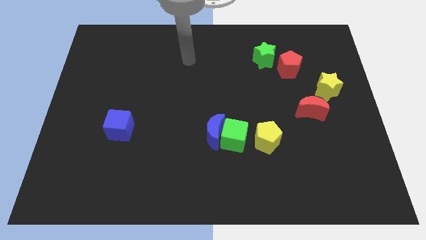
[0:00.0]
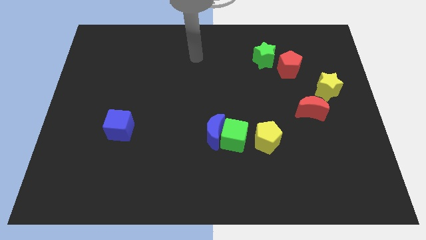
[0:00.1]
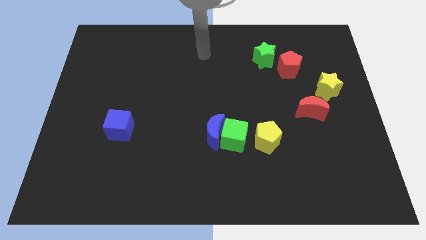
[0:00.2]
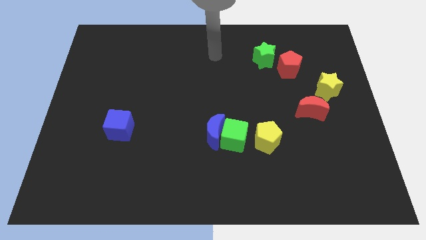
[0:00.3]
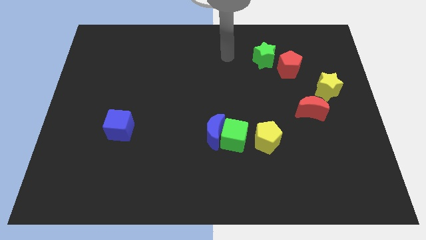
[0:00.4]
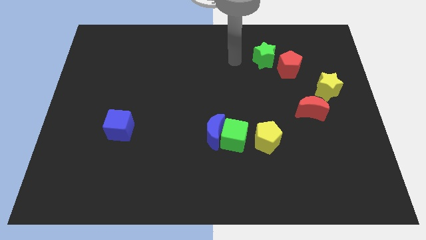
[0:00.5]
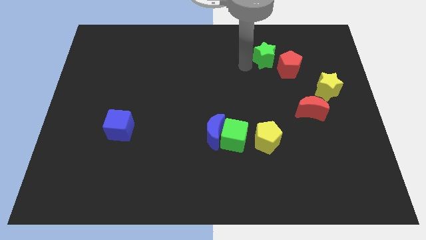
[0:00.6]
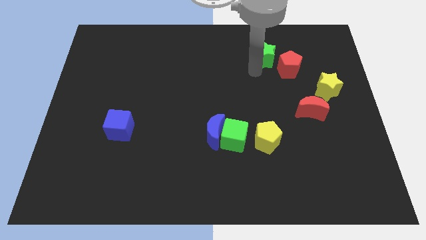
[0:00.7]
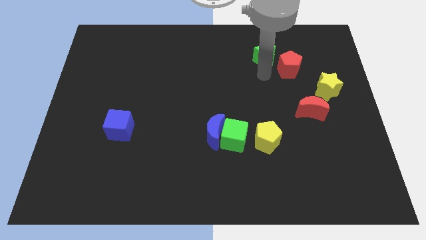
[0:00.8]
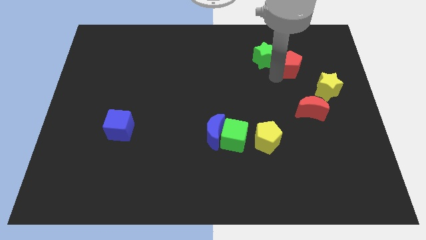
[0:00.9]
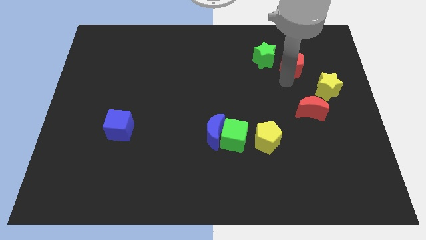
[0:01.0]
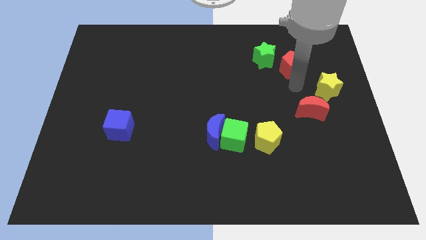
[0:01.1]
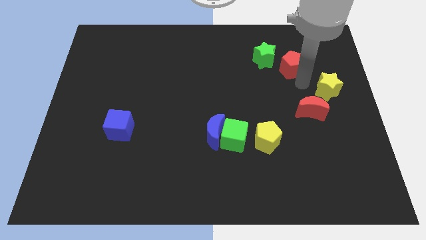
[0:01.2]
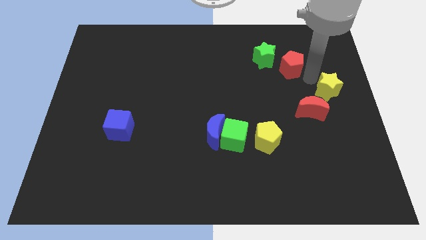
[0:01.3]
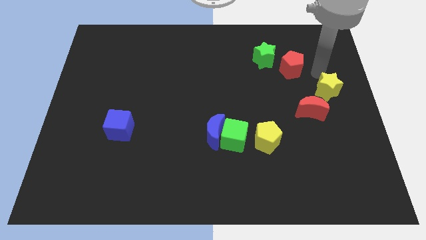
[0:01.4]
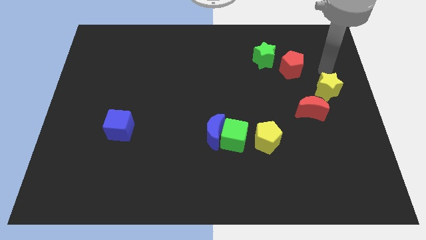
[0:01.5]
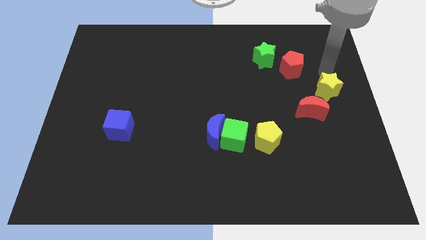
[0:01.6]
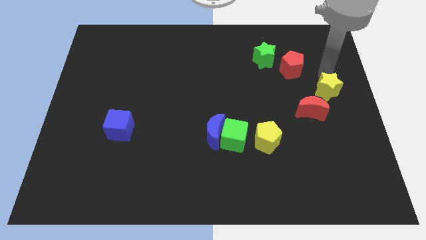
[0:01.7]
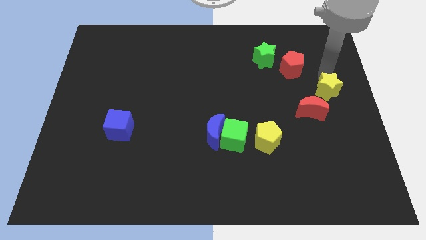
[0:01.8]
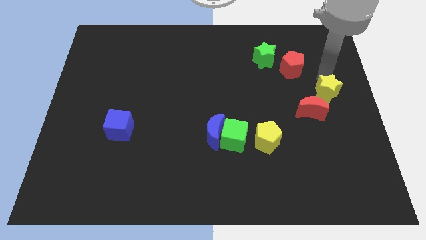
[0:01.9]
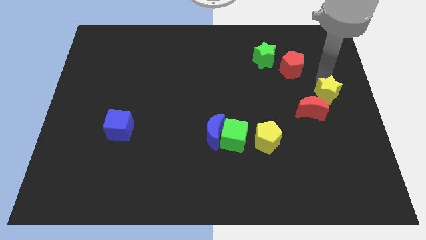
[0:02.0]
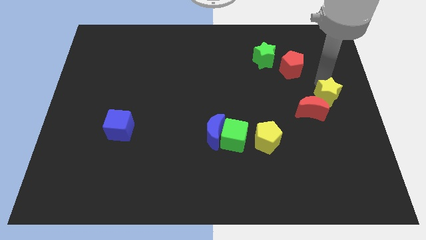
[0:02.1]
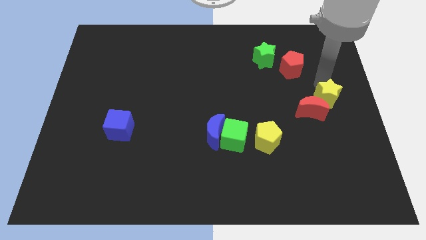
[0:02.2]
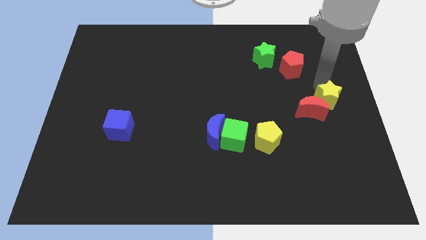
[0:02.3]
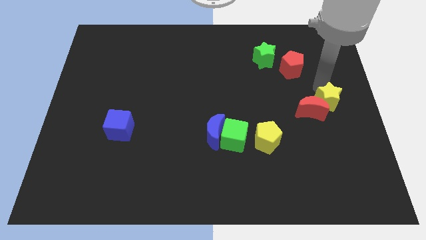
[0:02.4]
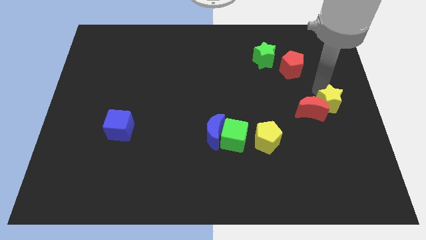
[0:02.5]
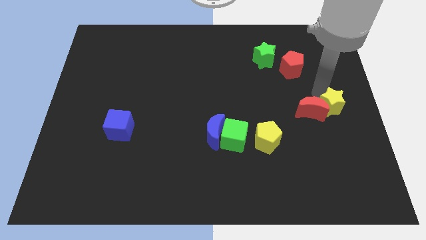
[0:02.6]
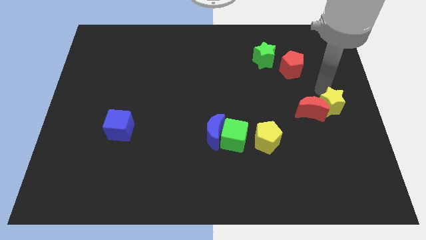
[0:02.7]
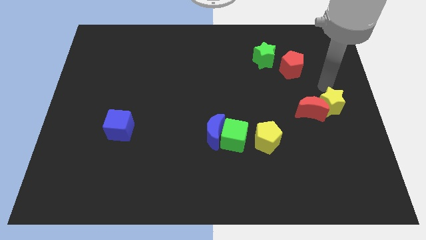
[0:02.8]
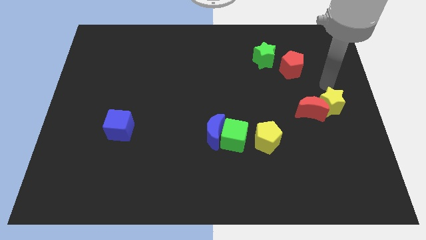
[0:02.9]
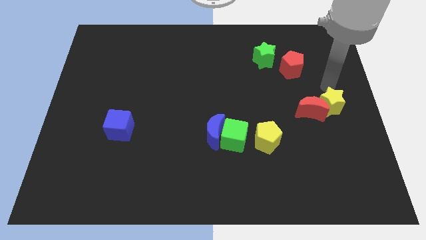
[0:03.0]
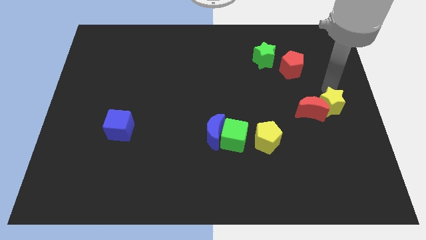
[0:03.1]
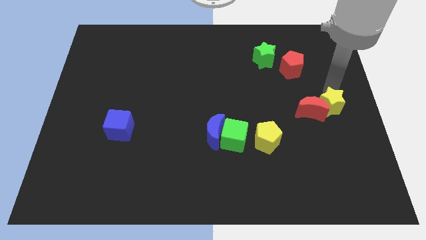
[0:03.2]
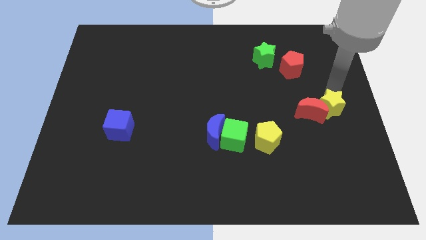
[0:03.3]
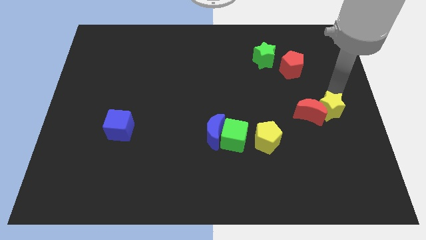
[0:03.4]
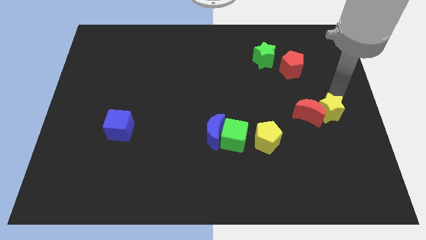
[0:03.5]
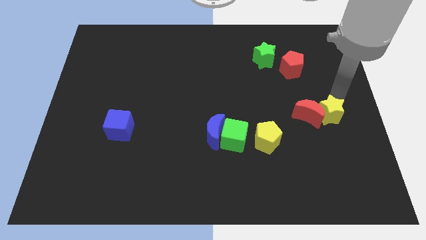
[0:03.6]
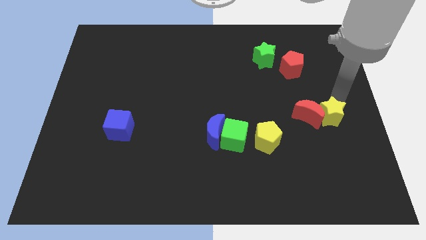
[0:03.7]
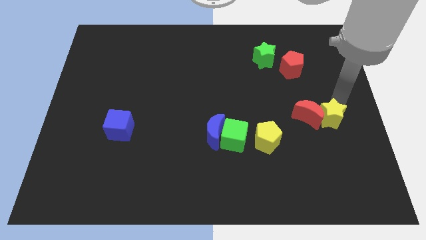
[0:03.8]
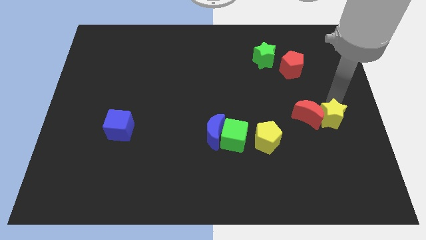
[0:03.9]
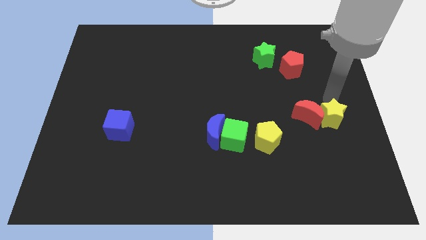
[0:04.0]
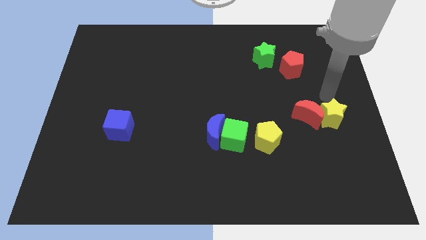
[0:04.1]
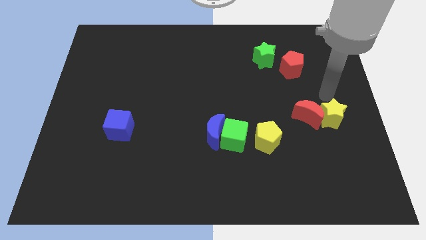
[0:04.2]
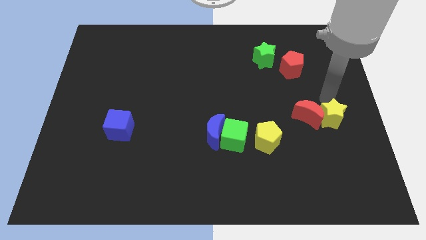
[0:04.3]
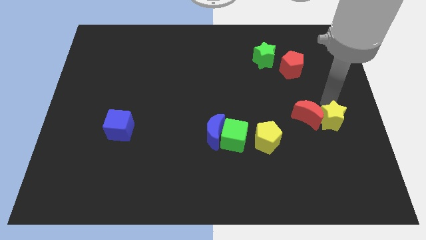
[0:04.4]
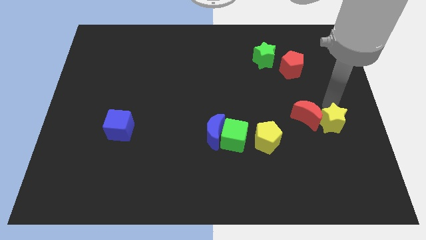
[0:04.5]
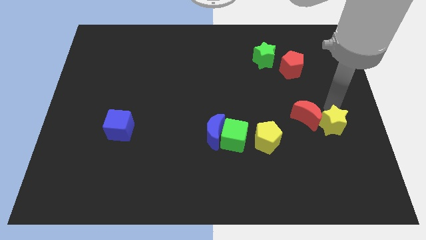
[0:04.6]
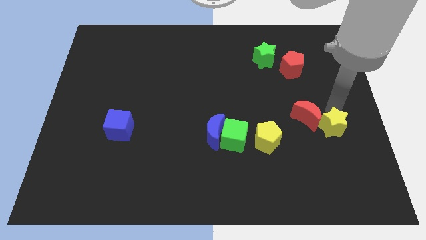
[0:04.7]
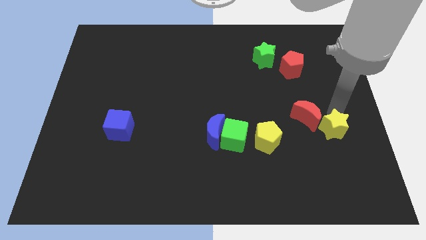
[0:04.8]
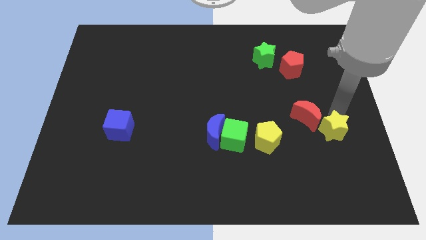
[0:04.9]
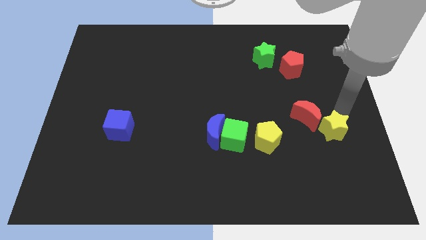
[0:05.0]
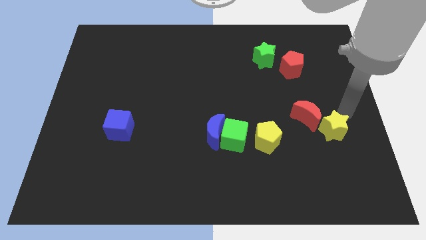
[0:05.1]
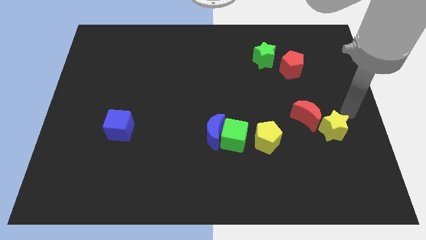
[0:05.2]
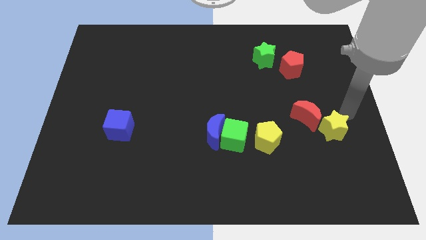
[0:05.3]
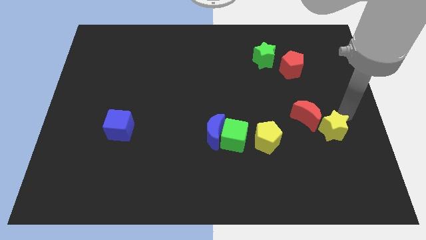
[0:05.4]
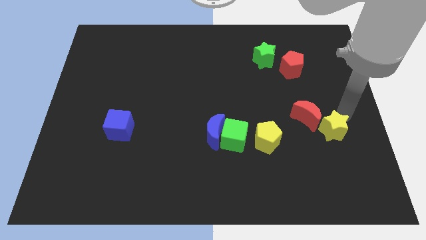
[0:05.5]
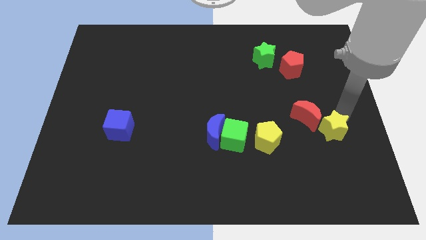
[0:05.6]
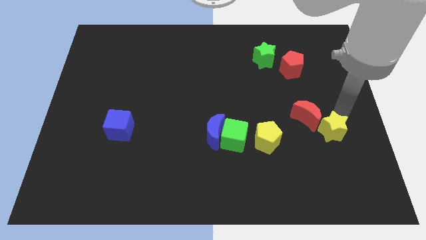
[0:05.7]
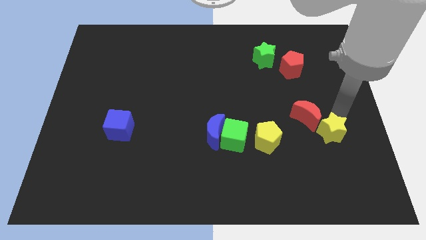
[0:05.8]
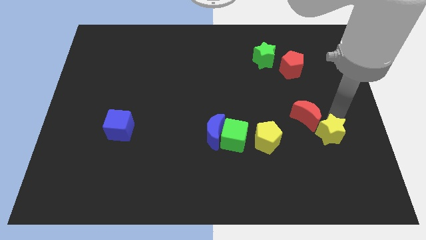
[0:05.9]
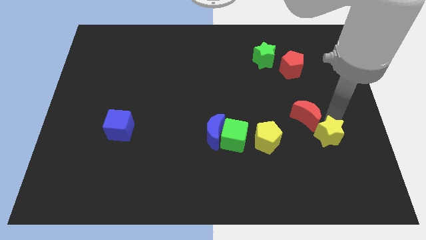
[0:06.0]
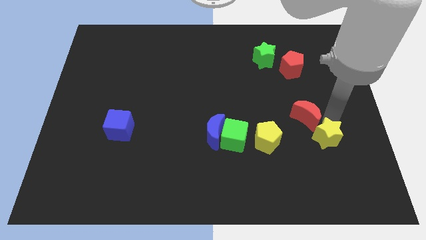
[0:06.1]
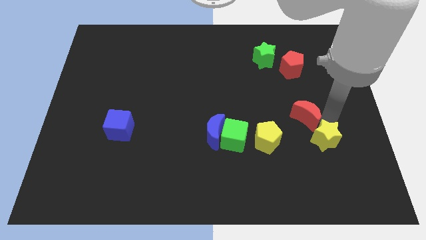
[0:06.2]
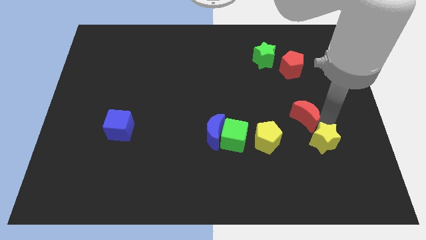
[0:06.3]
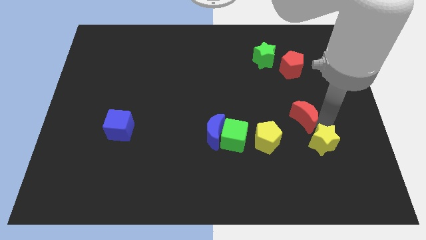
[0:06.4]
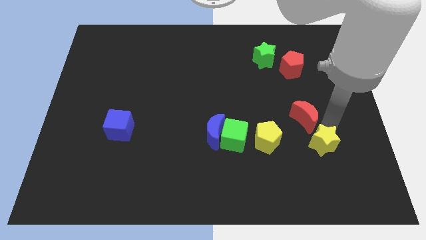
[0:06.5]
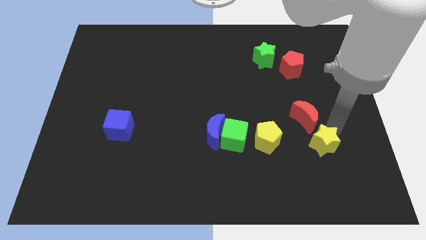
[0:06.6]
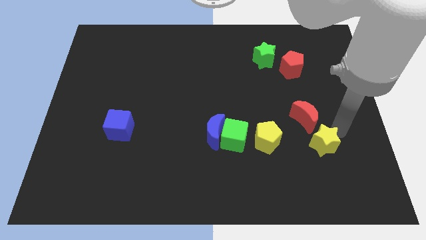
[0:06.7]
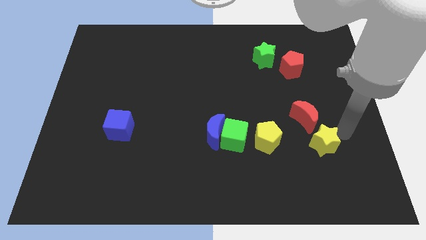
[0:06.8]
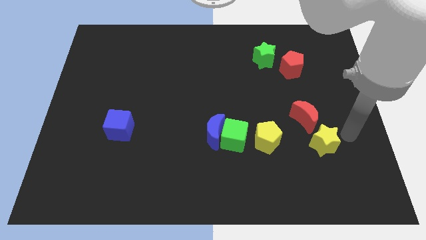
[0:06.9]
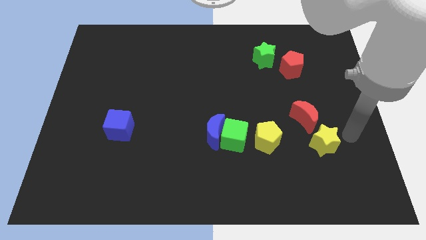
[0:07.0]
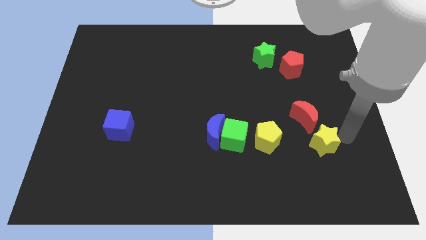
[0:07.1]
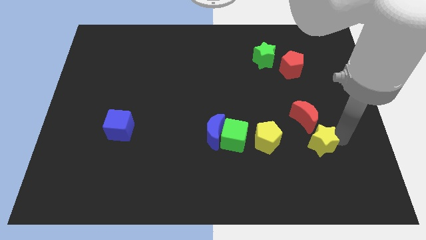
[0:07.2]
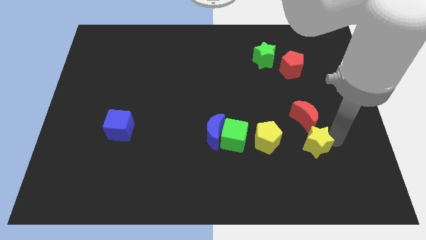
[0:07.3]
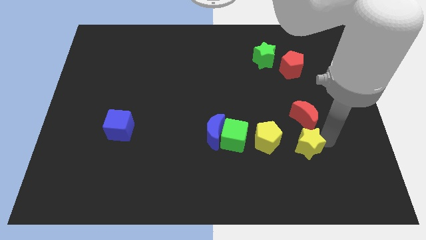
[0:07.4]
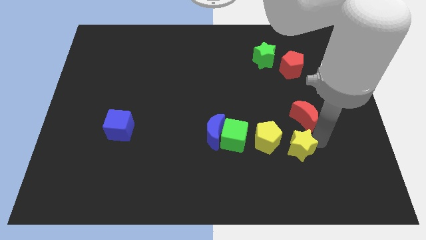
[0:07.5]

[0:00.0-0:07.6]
push the yellow star to the bottom right side of the yellow pentagon
